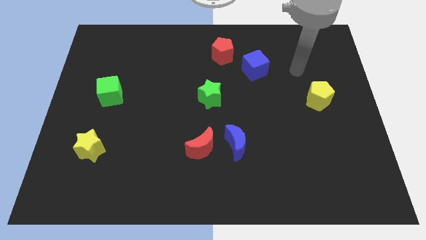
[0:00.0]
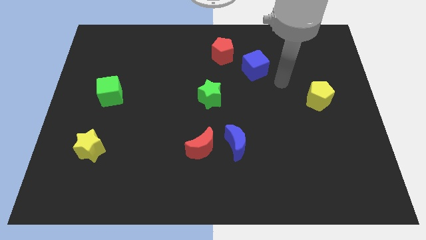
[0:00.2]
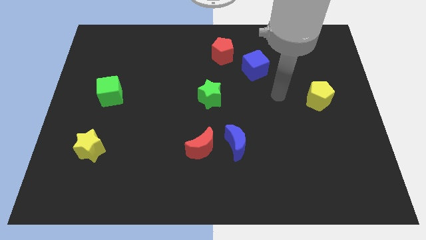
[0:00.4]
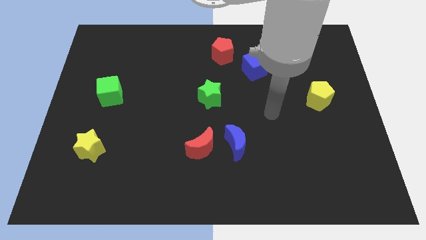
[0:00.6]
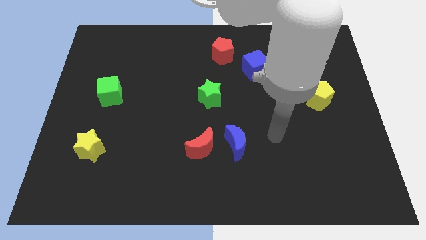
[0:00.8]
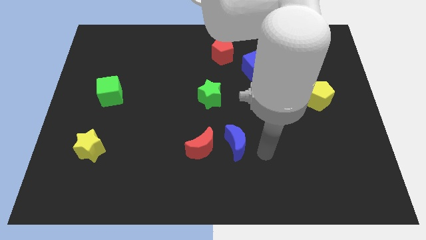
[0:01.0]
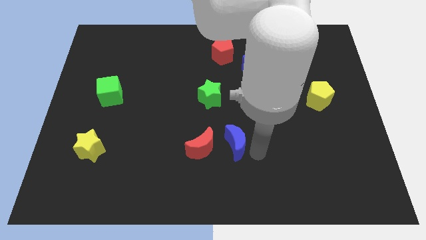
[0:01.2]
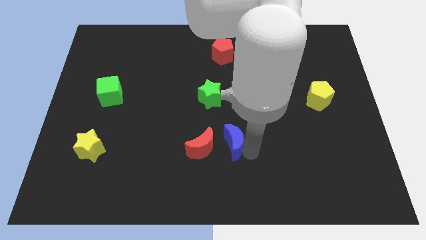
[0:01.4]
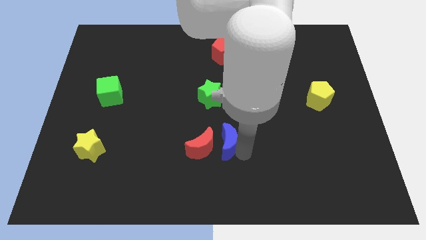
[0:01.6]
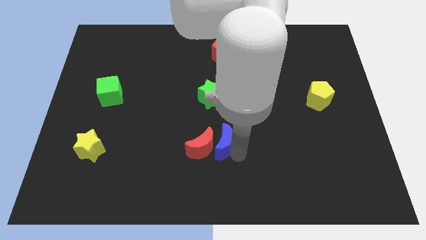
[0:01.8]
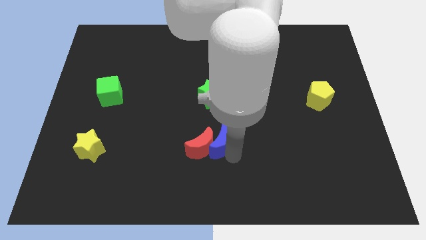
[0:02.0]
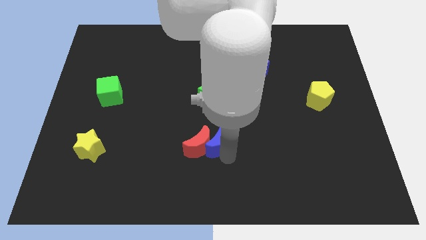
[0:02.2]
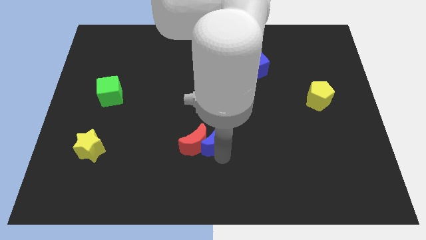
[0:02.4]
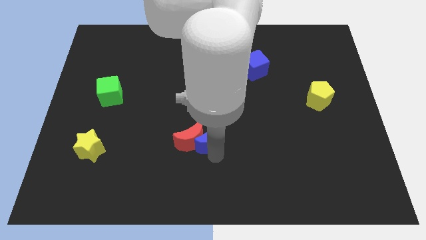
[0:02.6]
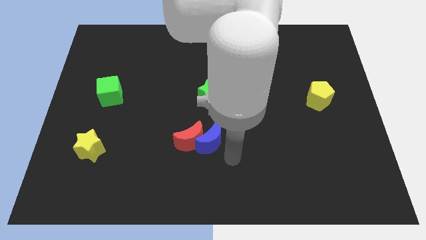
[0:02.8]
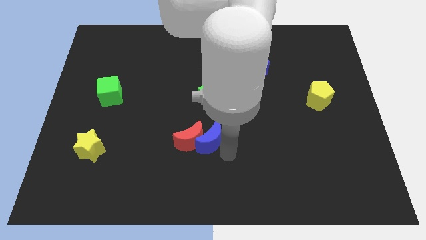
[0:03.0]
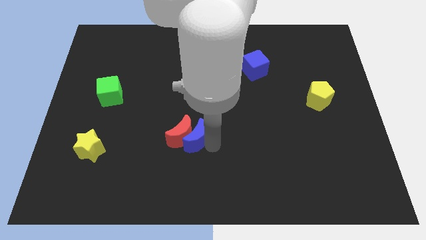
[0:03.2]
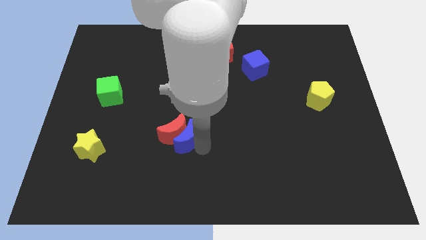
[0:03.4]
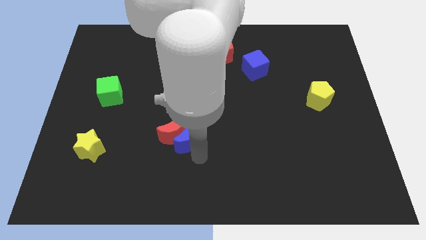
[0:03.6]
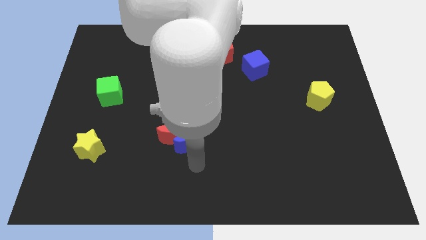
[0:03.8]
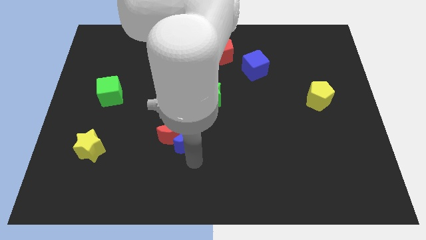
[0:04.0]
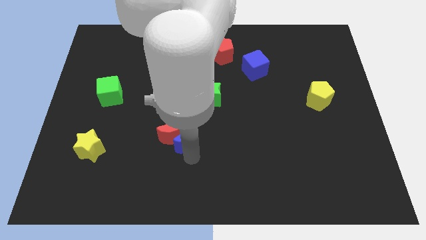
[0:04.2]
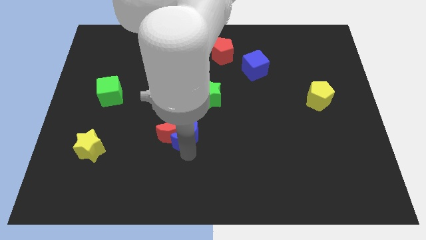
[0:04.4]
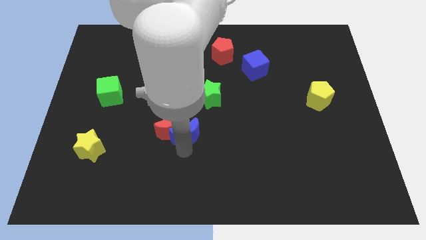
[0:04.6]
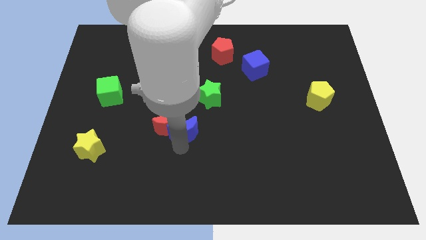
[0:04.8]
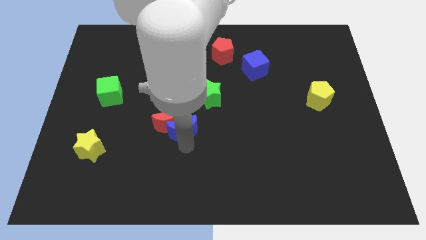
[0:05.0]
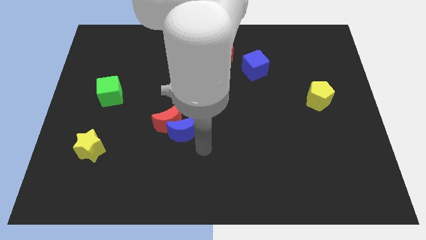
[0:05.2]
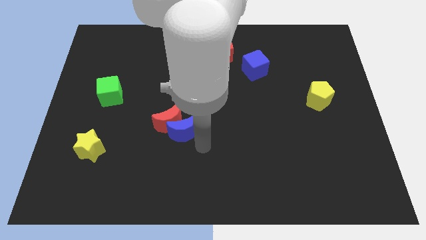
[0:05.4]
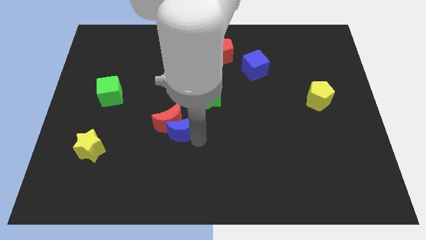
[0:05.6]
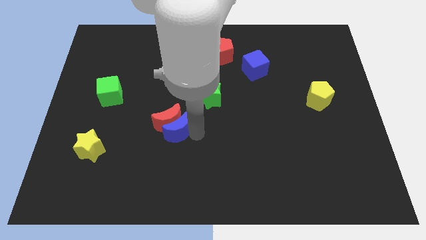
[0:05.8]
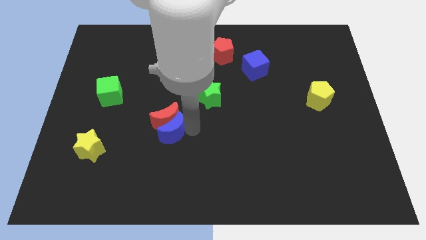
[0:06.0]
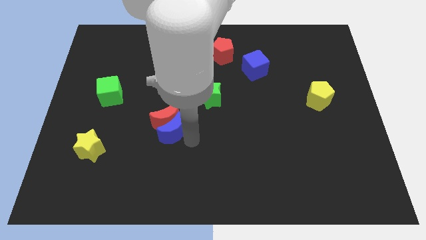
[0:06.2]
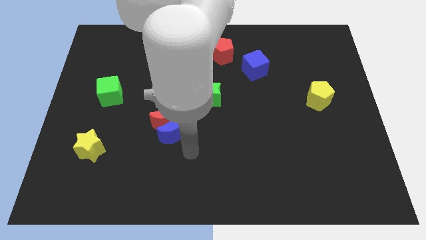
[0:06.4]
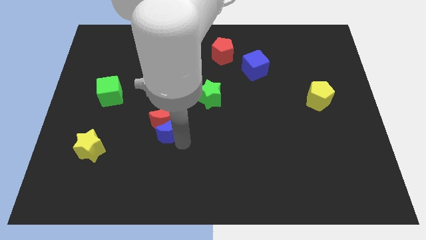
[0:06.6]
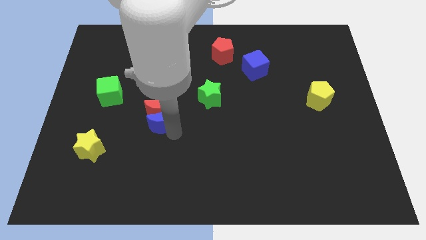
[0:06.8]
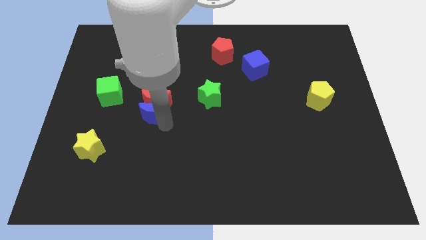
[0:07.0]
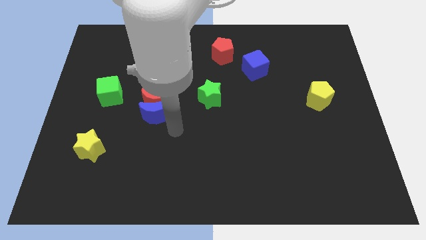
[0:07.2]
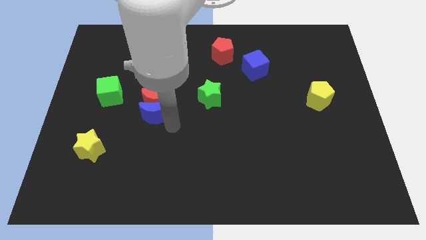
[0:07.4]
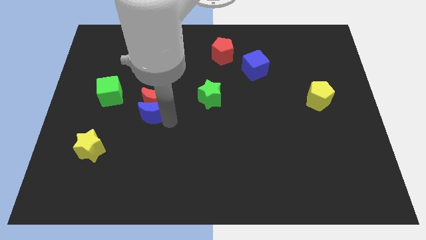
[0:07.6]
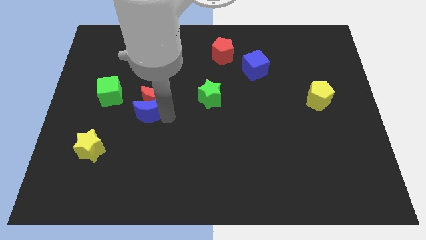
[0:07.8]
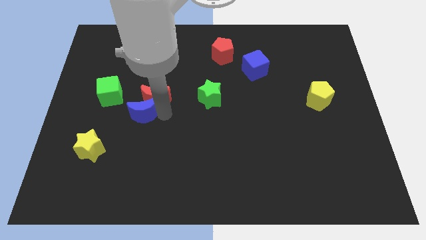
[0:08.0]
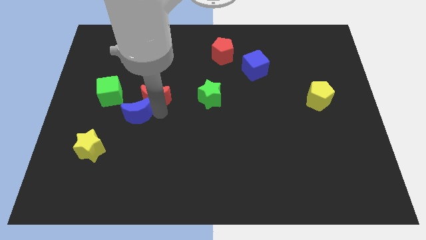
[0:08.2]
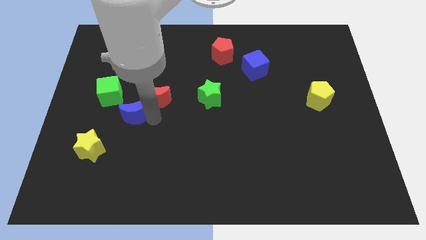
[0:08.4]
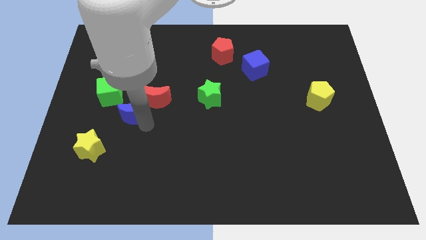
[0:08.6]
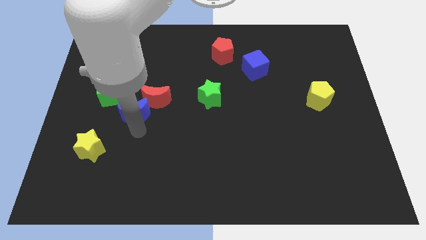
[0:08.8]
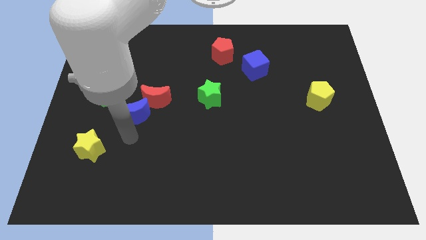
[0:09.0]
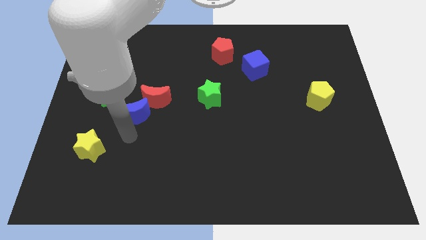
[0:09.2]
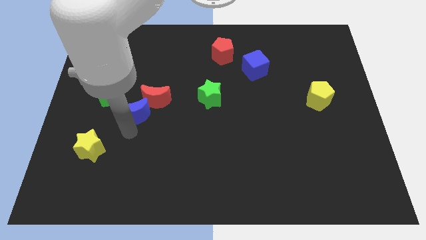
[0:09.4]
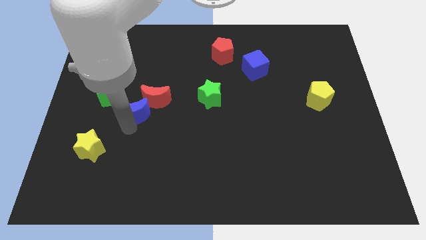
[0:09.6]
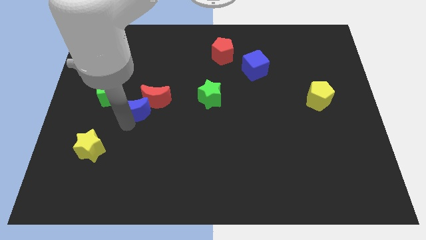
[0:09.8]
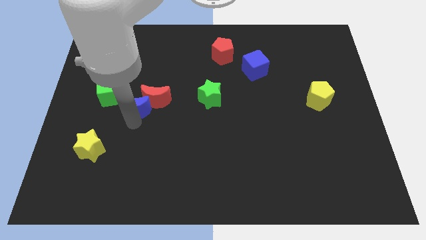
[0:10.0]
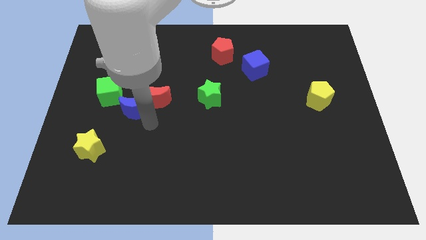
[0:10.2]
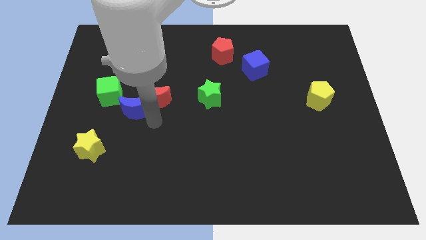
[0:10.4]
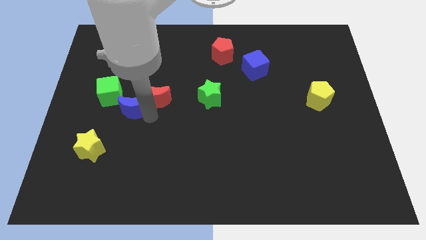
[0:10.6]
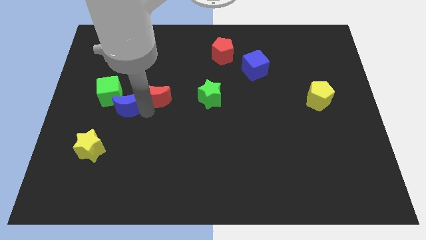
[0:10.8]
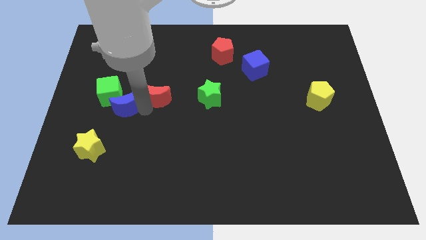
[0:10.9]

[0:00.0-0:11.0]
push the blue moon towards the green cube

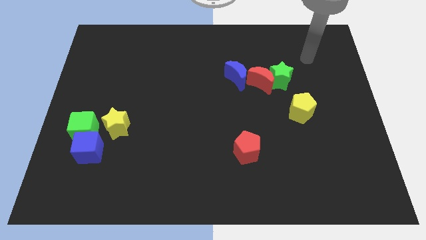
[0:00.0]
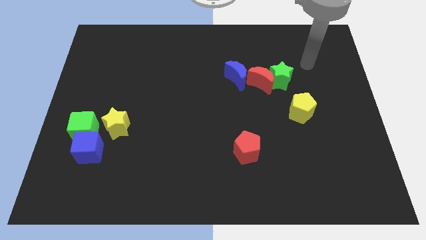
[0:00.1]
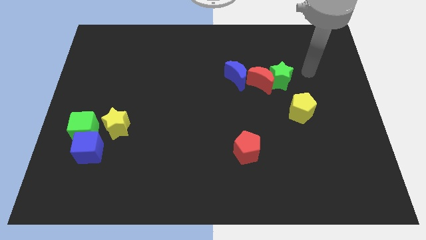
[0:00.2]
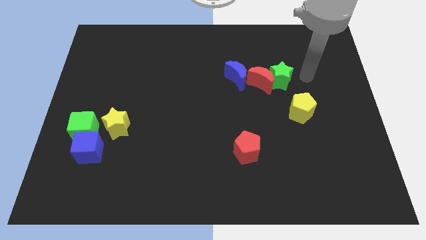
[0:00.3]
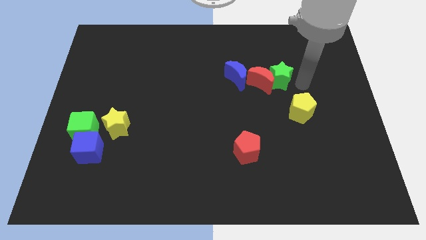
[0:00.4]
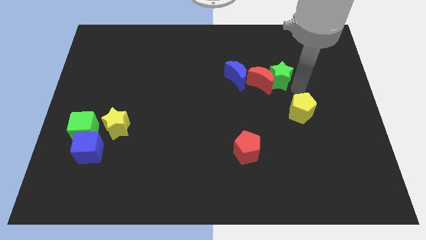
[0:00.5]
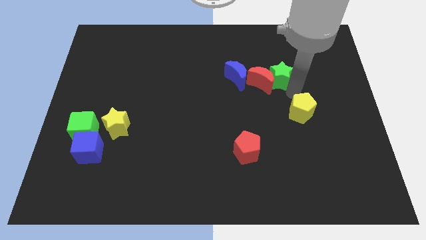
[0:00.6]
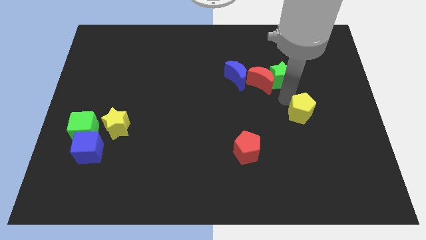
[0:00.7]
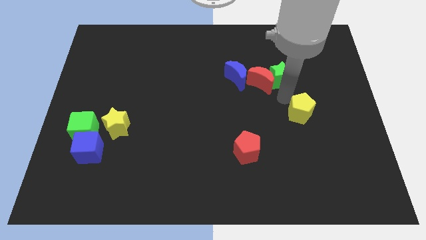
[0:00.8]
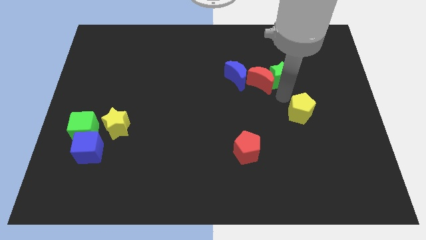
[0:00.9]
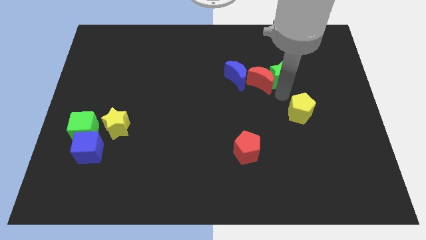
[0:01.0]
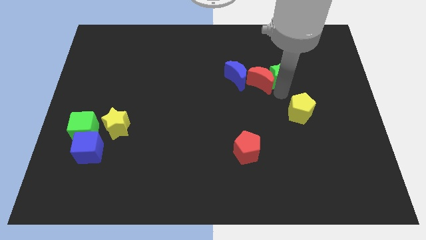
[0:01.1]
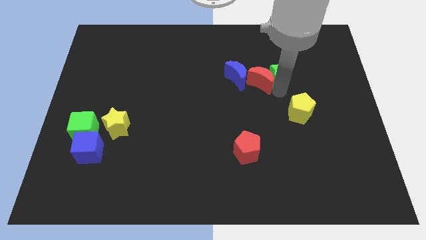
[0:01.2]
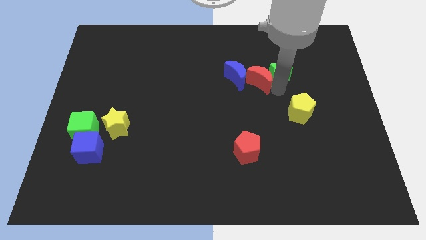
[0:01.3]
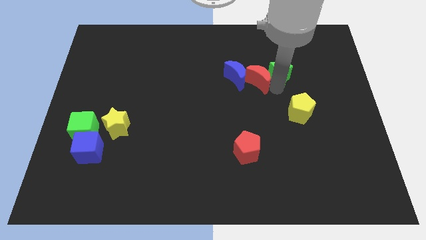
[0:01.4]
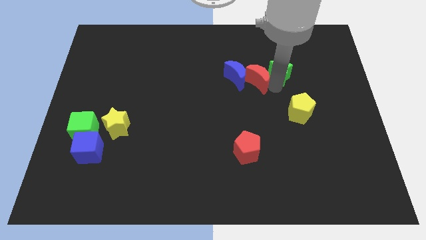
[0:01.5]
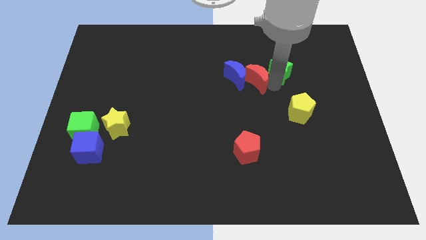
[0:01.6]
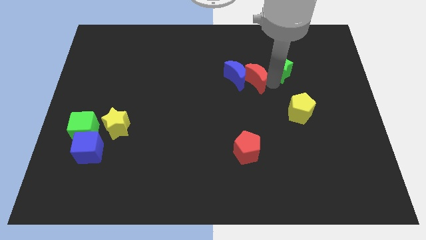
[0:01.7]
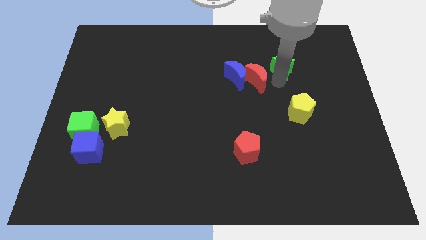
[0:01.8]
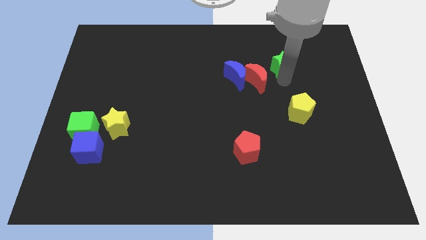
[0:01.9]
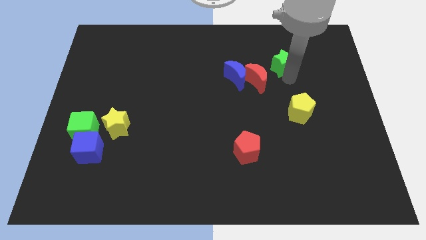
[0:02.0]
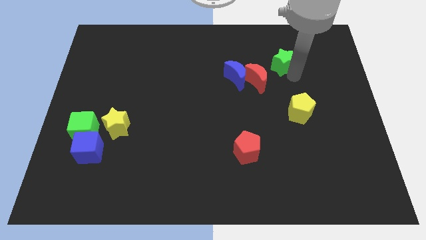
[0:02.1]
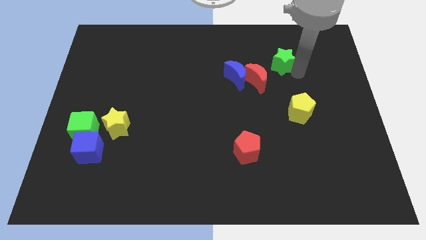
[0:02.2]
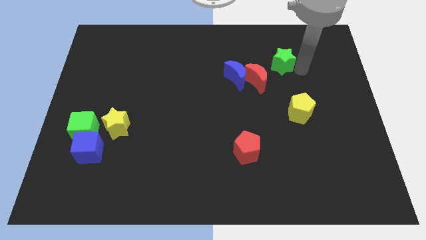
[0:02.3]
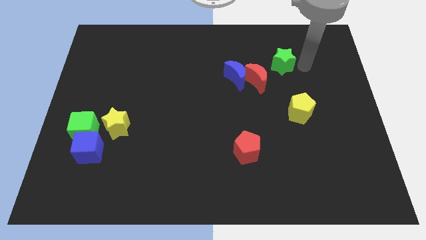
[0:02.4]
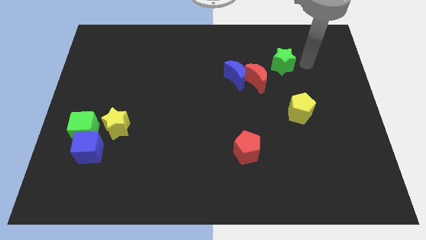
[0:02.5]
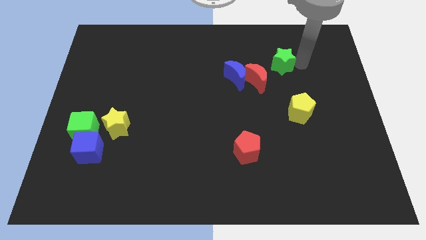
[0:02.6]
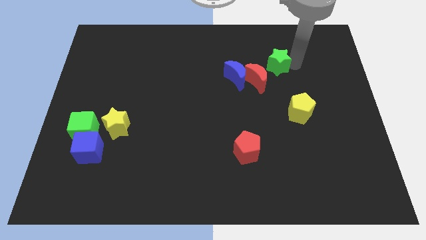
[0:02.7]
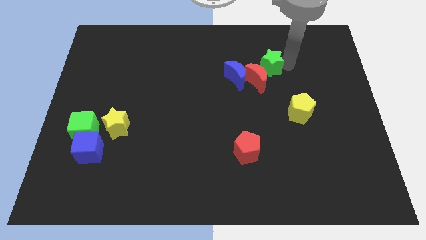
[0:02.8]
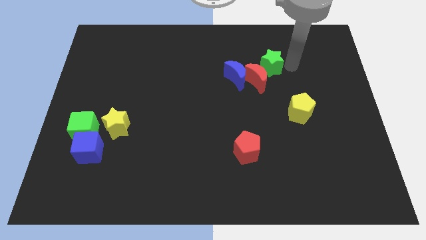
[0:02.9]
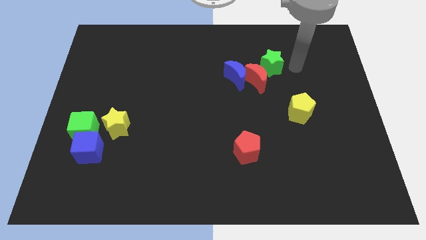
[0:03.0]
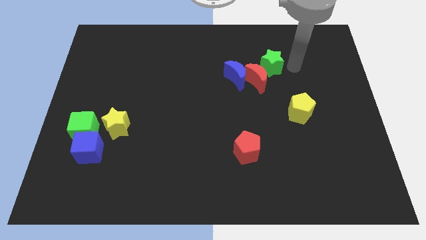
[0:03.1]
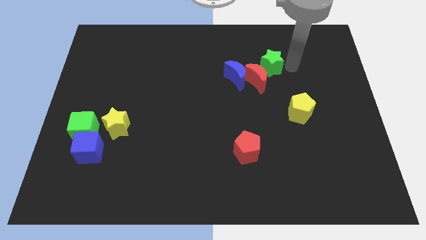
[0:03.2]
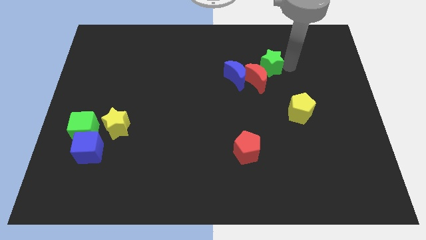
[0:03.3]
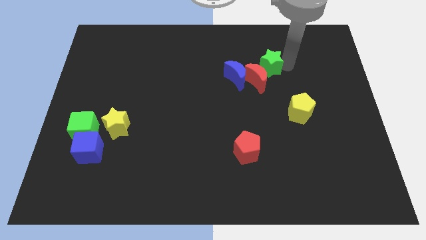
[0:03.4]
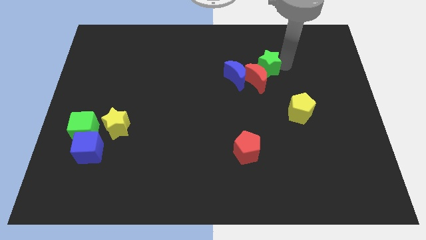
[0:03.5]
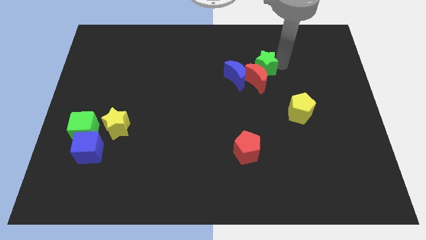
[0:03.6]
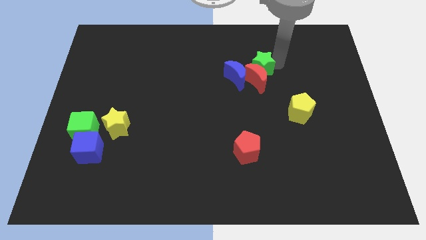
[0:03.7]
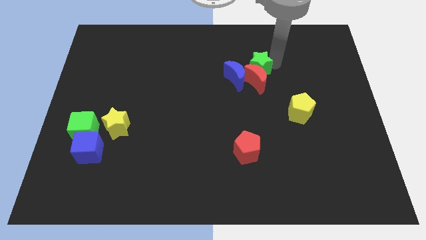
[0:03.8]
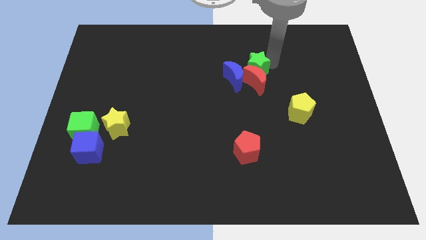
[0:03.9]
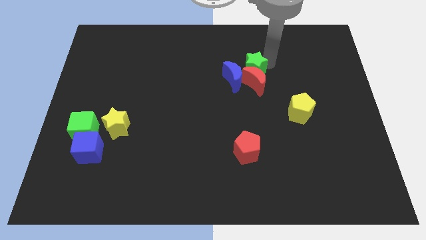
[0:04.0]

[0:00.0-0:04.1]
put the green star close to the blue moon
